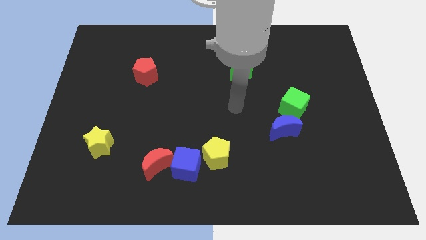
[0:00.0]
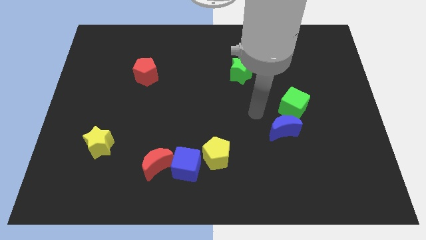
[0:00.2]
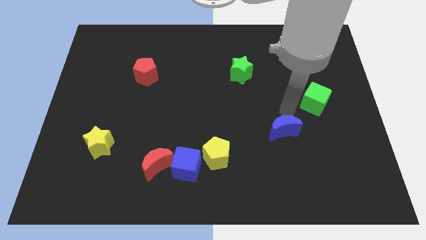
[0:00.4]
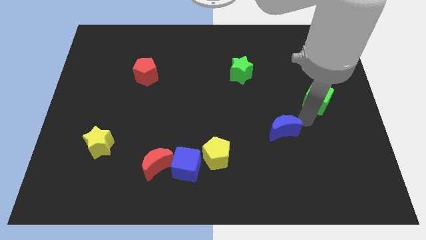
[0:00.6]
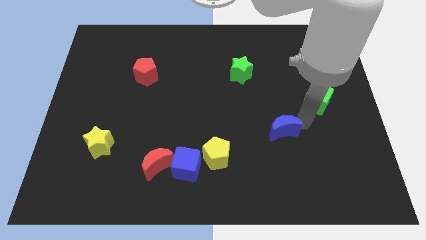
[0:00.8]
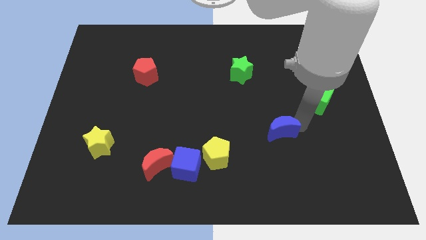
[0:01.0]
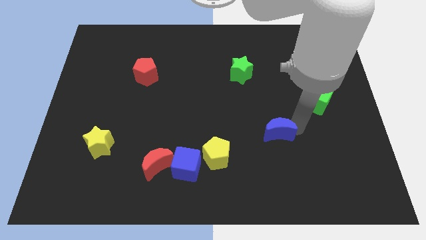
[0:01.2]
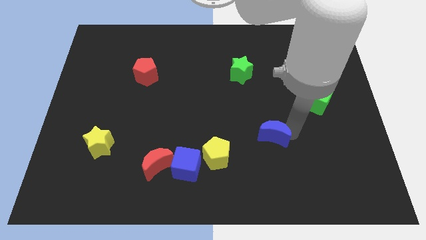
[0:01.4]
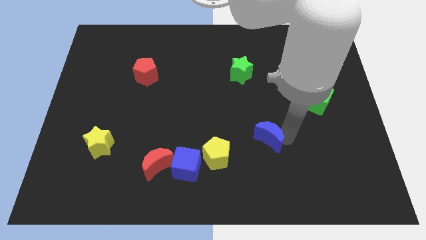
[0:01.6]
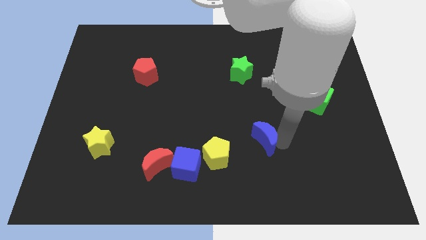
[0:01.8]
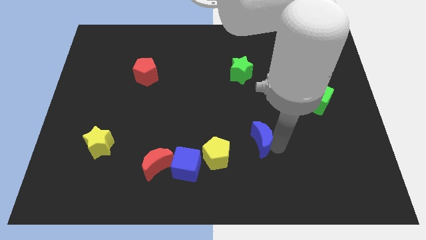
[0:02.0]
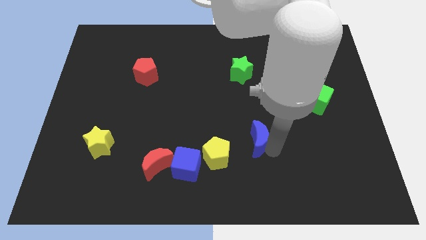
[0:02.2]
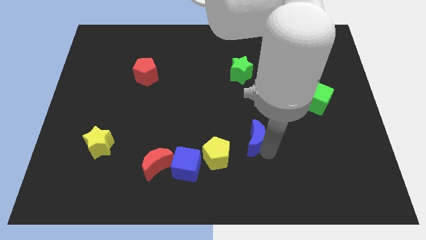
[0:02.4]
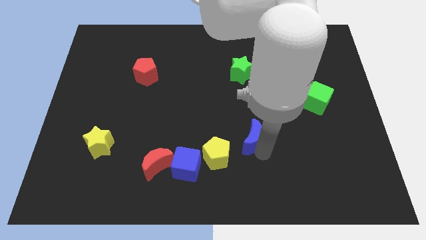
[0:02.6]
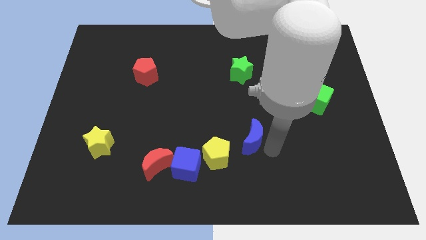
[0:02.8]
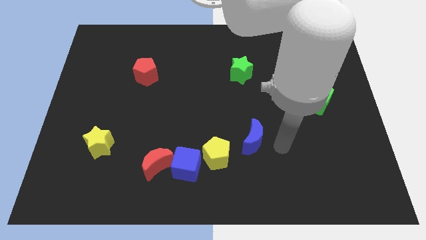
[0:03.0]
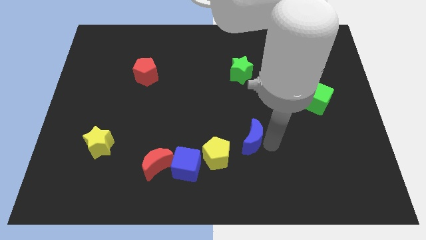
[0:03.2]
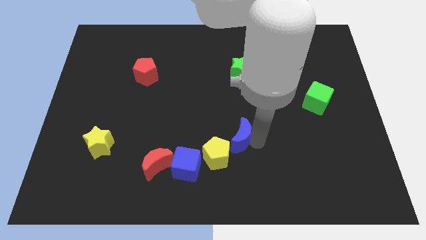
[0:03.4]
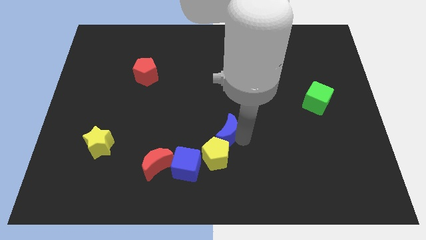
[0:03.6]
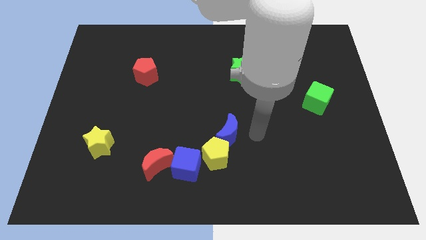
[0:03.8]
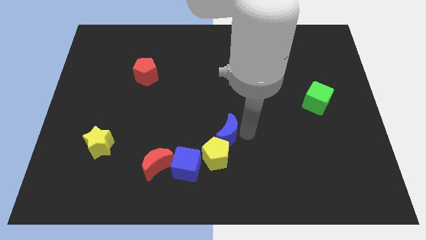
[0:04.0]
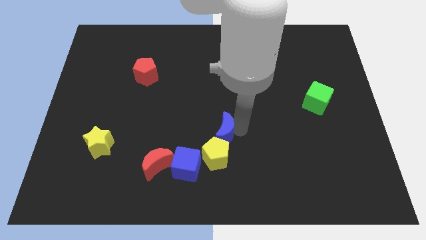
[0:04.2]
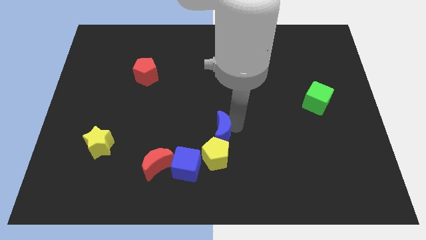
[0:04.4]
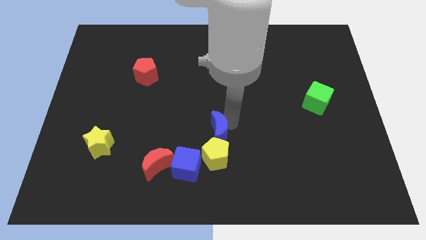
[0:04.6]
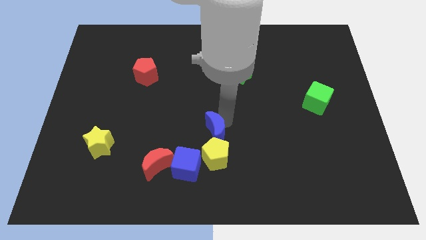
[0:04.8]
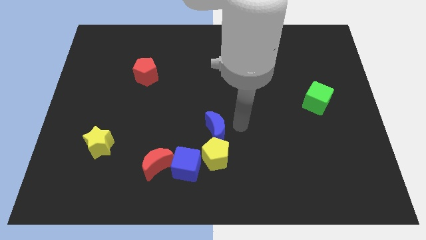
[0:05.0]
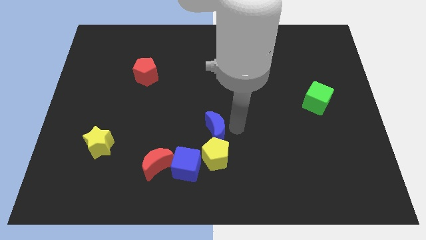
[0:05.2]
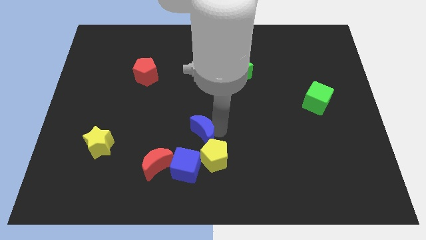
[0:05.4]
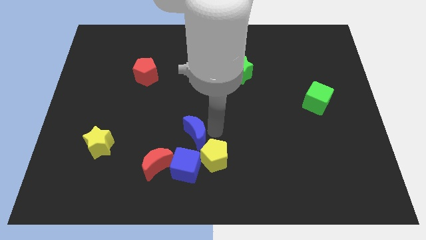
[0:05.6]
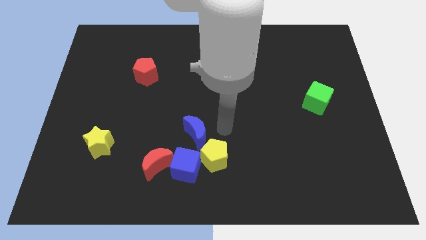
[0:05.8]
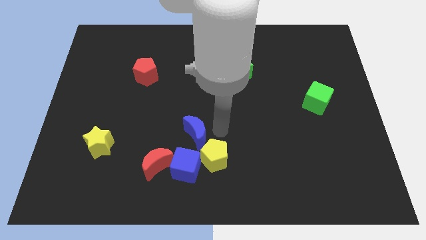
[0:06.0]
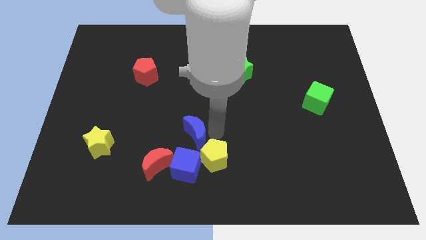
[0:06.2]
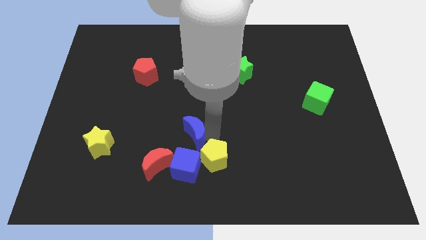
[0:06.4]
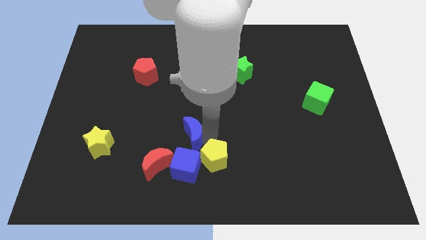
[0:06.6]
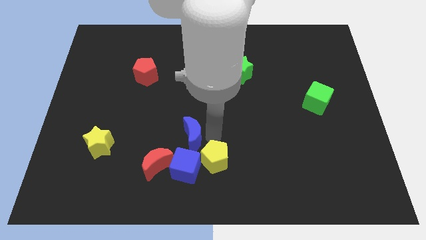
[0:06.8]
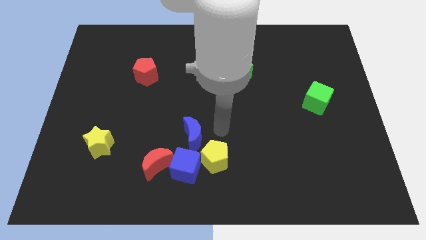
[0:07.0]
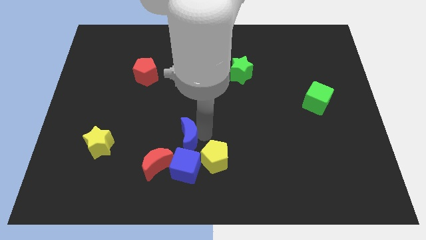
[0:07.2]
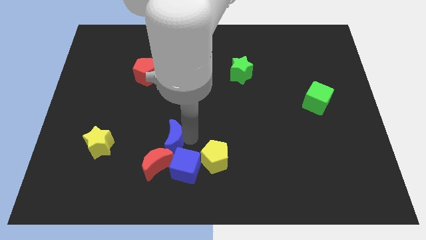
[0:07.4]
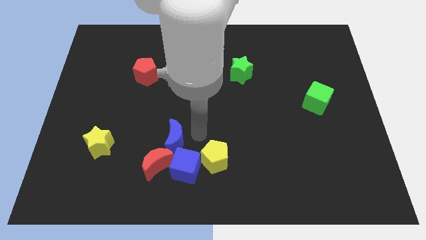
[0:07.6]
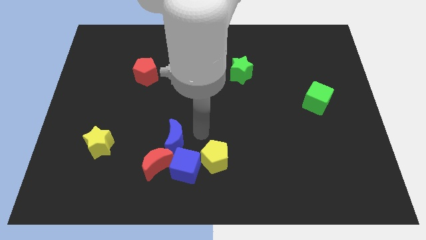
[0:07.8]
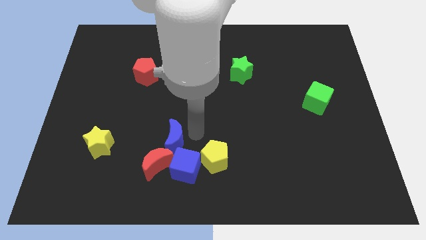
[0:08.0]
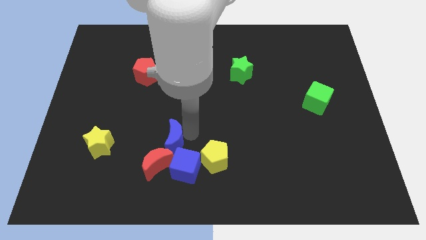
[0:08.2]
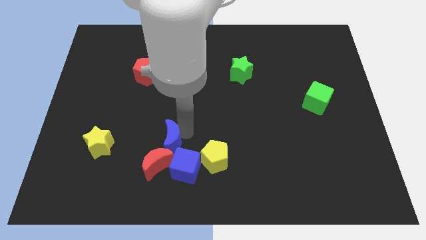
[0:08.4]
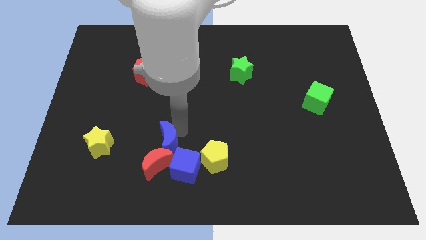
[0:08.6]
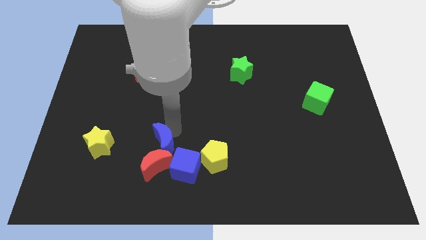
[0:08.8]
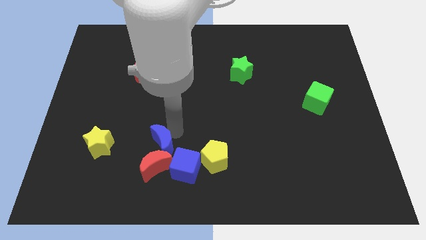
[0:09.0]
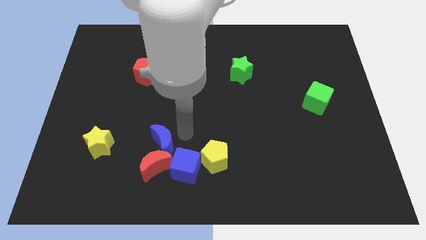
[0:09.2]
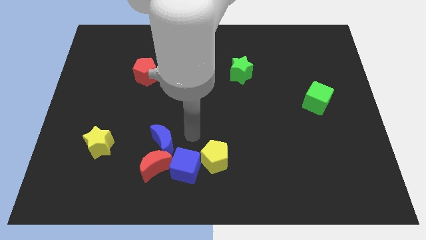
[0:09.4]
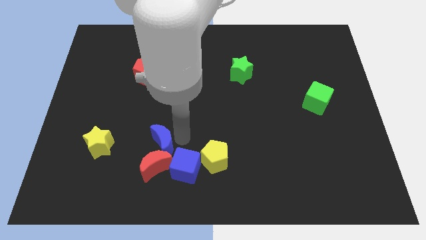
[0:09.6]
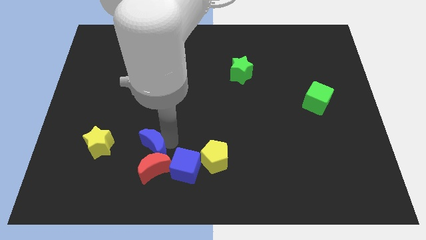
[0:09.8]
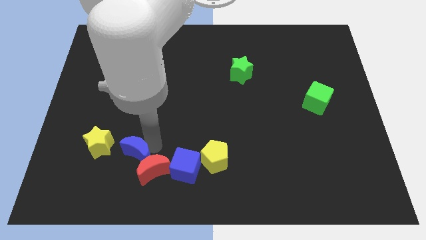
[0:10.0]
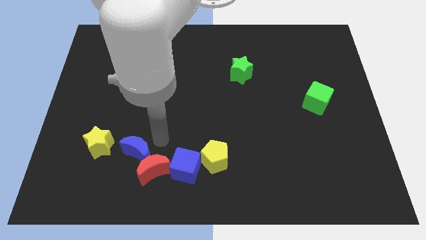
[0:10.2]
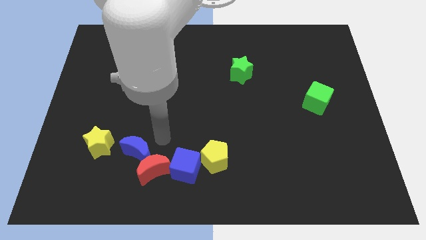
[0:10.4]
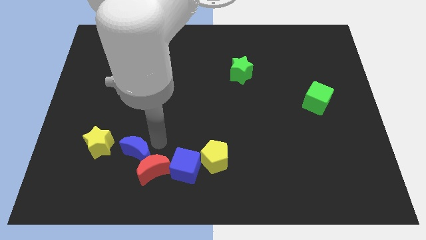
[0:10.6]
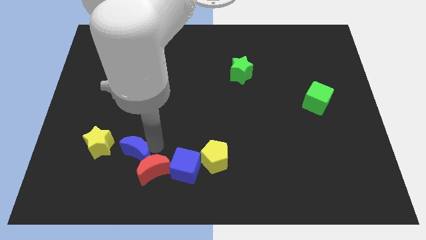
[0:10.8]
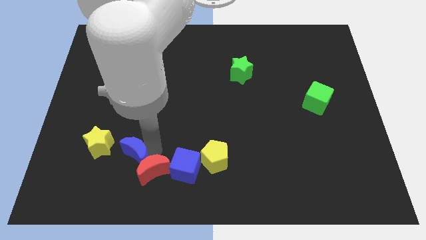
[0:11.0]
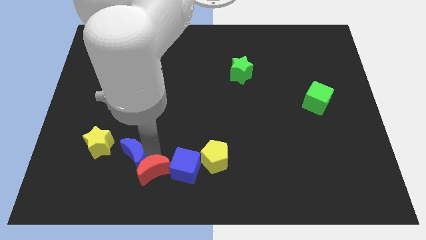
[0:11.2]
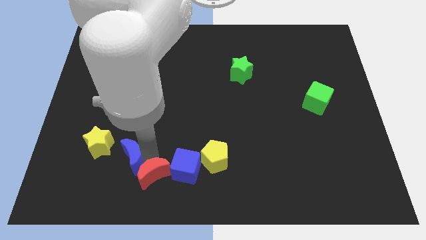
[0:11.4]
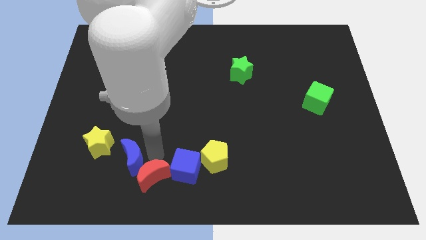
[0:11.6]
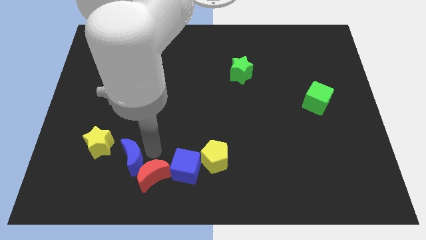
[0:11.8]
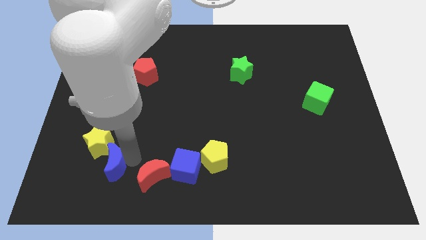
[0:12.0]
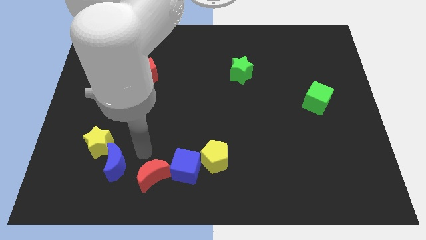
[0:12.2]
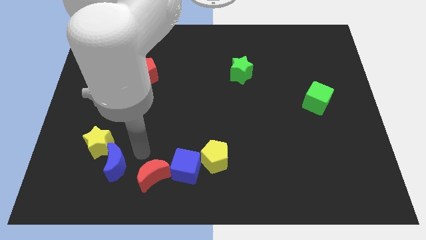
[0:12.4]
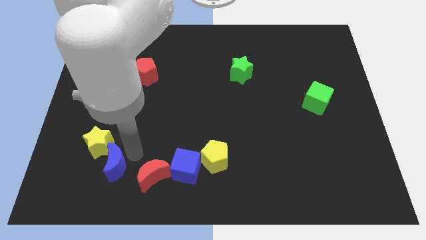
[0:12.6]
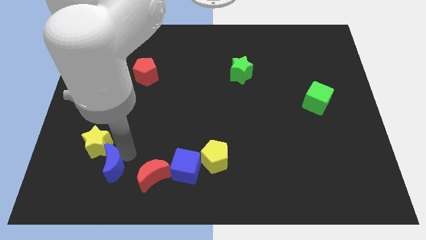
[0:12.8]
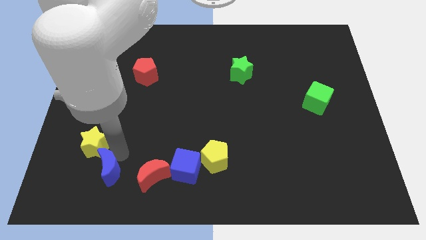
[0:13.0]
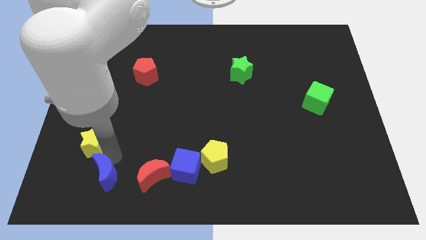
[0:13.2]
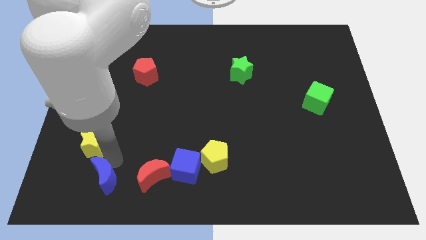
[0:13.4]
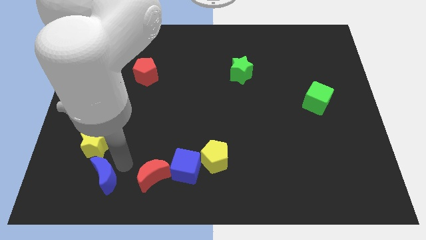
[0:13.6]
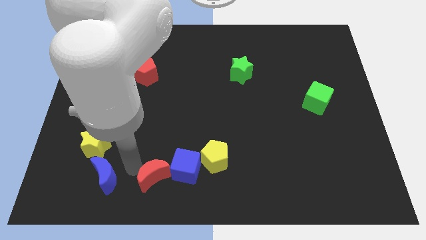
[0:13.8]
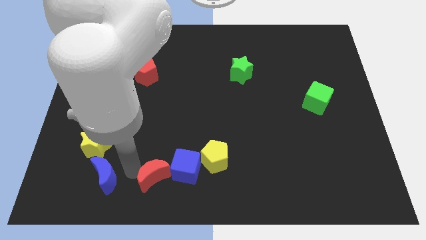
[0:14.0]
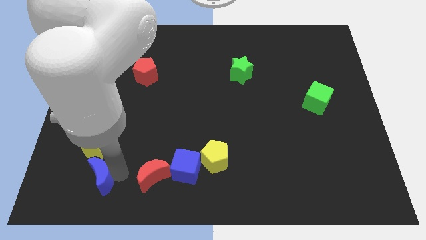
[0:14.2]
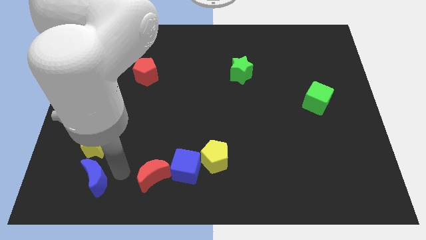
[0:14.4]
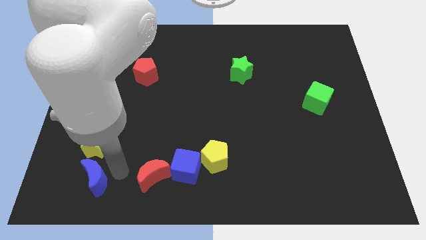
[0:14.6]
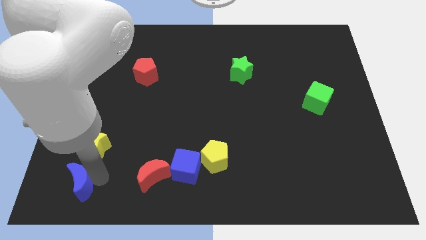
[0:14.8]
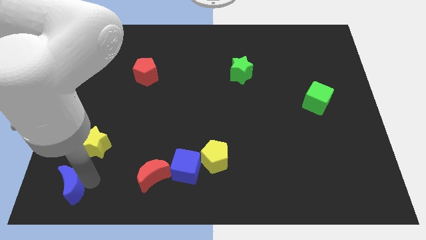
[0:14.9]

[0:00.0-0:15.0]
slide the blue moon to the lower left corner
